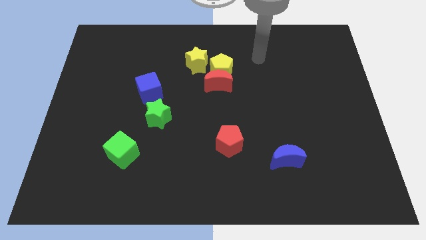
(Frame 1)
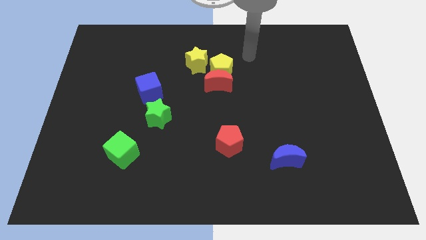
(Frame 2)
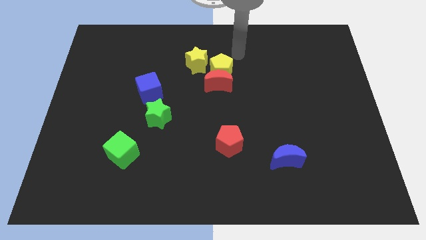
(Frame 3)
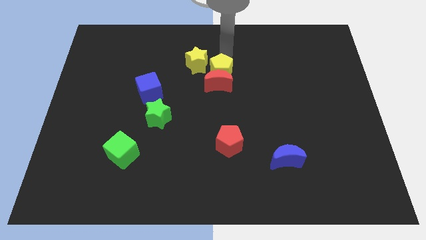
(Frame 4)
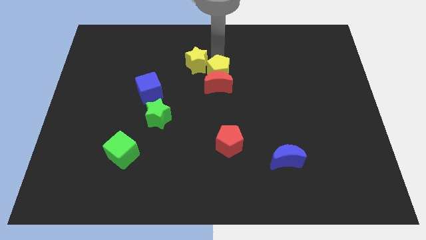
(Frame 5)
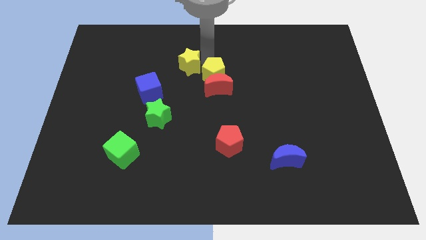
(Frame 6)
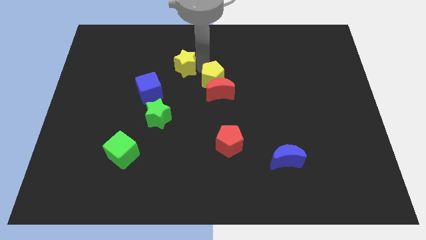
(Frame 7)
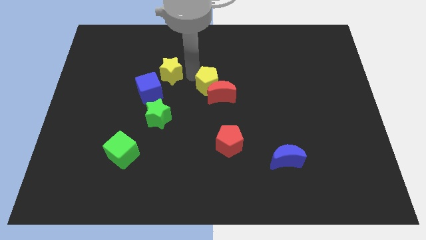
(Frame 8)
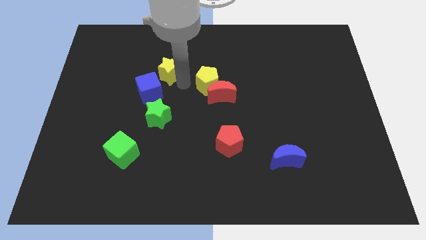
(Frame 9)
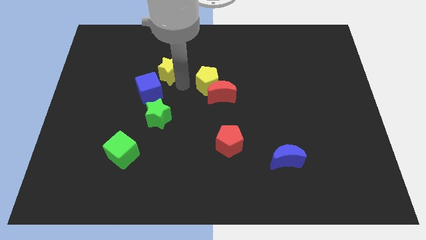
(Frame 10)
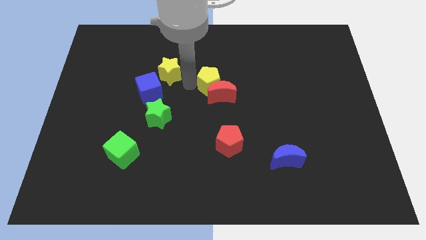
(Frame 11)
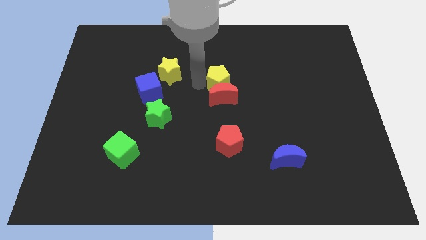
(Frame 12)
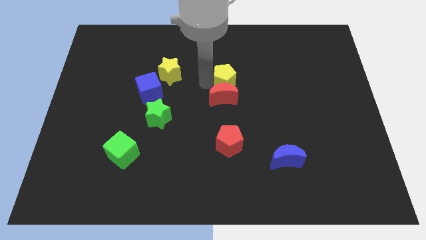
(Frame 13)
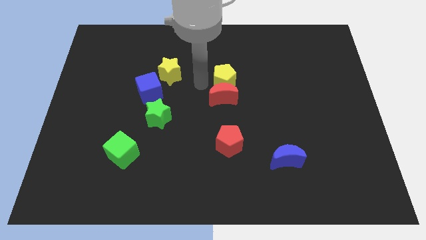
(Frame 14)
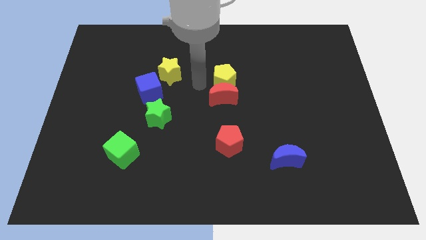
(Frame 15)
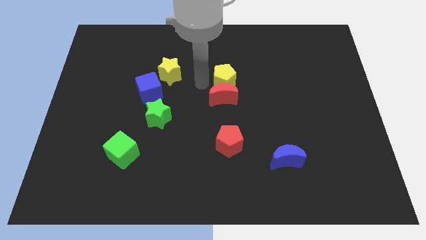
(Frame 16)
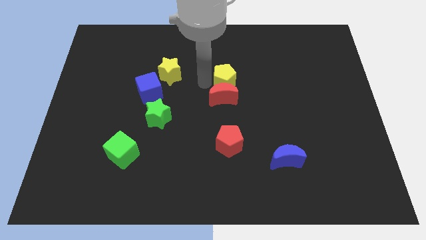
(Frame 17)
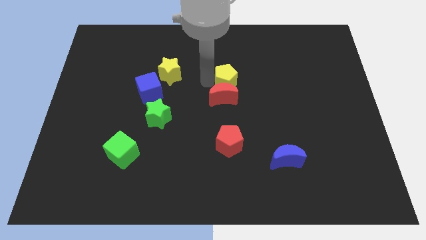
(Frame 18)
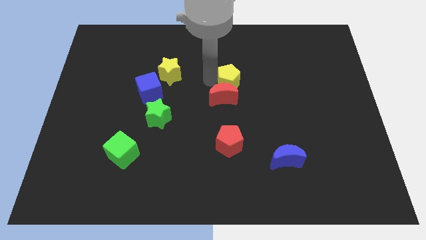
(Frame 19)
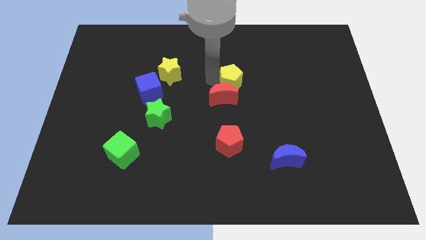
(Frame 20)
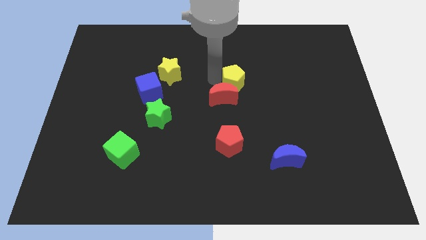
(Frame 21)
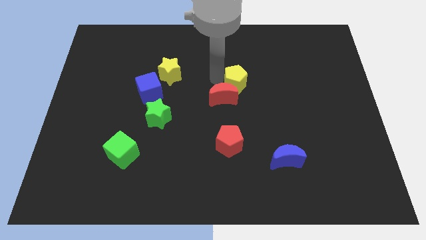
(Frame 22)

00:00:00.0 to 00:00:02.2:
separate the yellow pentagon from the red moon and yellow star

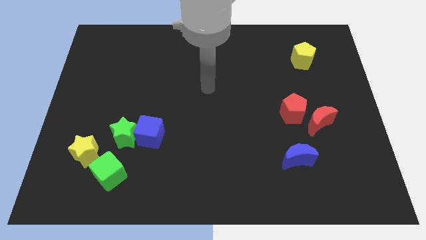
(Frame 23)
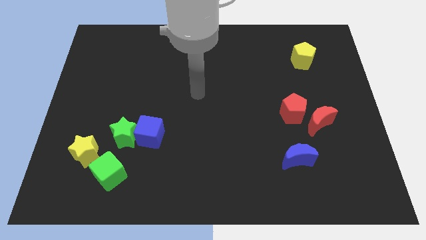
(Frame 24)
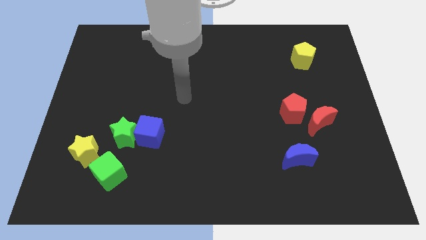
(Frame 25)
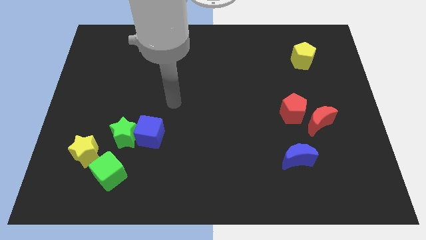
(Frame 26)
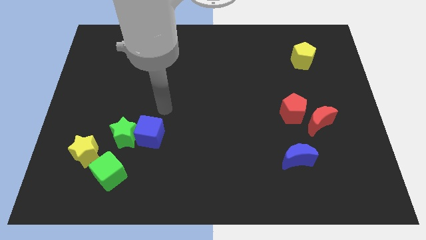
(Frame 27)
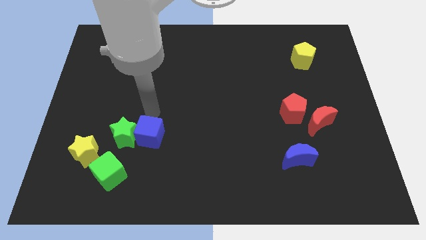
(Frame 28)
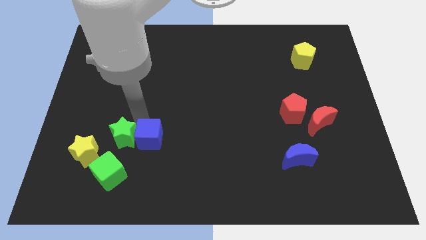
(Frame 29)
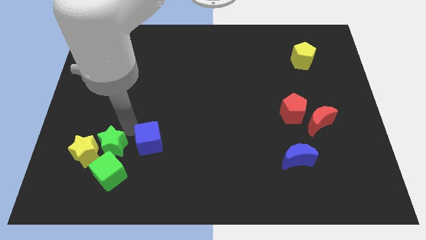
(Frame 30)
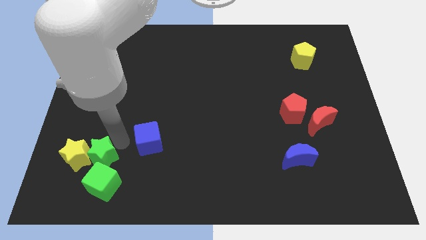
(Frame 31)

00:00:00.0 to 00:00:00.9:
separate the blue cube from the green star

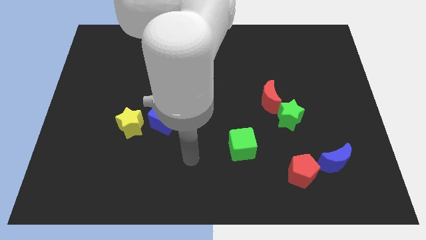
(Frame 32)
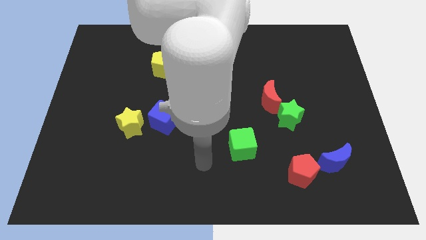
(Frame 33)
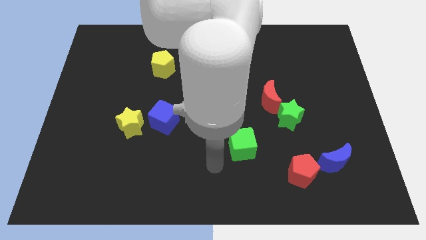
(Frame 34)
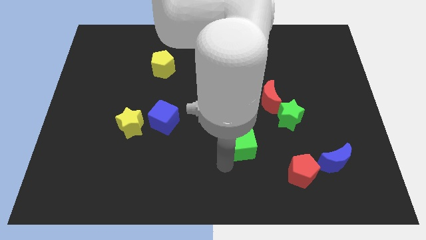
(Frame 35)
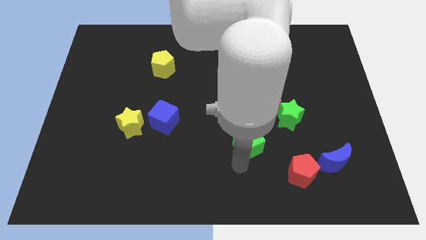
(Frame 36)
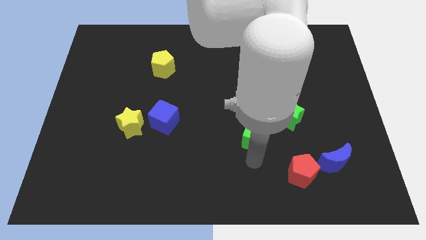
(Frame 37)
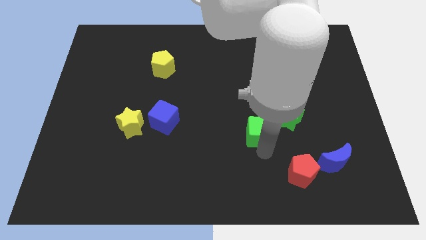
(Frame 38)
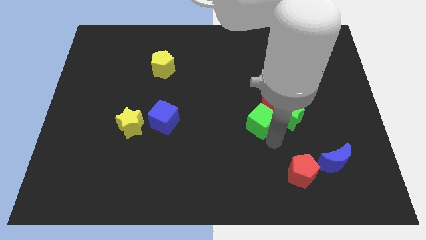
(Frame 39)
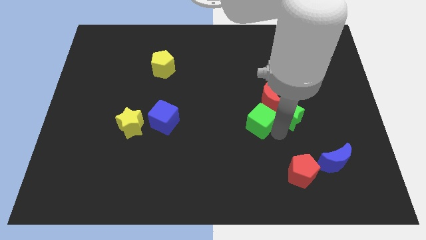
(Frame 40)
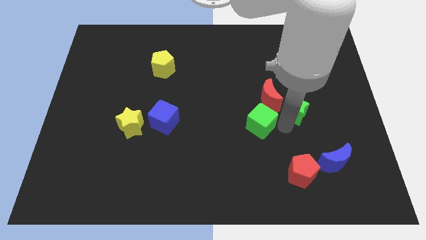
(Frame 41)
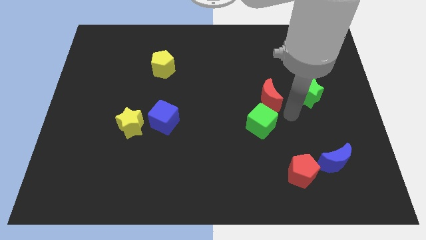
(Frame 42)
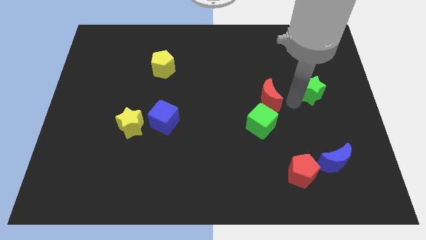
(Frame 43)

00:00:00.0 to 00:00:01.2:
pull the red moon apart from the green star

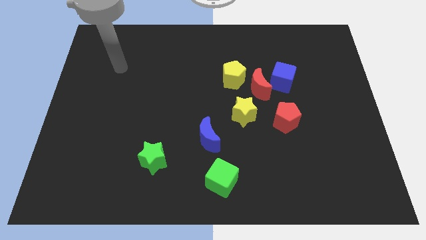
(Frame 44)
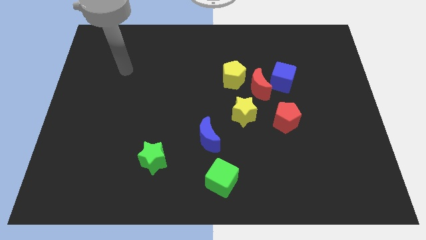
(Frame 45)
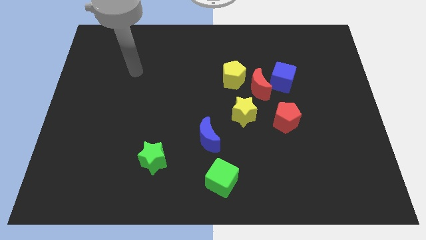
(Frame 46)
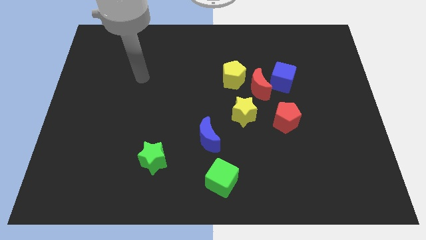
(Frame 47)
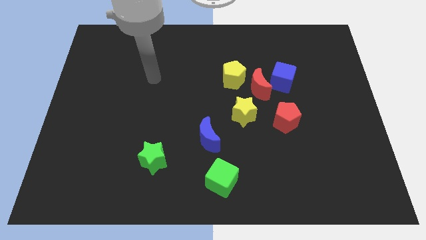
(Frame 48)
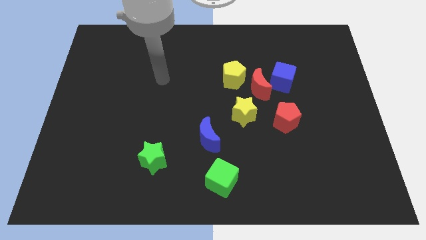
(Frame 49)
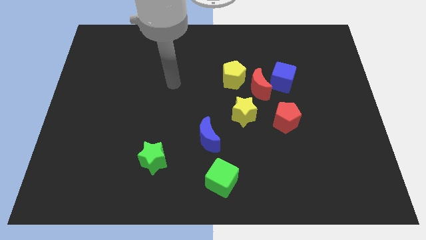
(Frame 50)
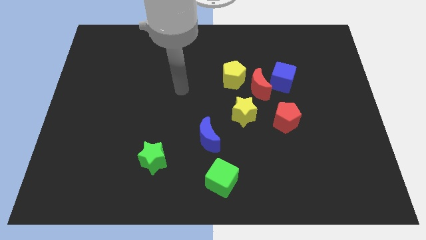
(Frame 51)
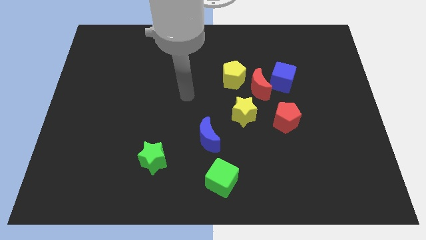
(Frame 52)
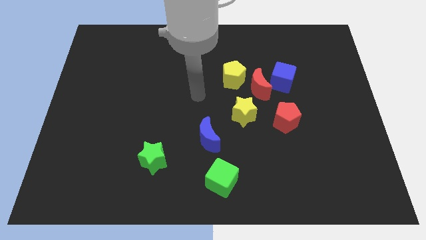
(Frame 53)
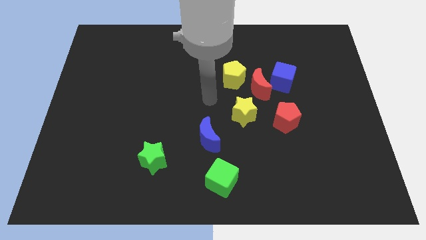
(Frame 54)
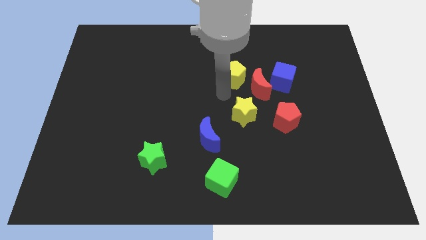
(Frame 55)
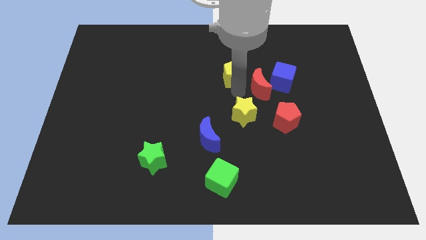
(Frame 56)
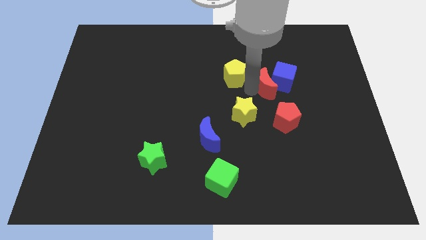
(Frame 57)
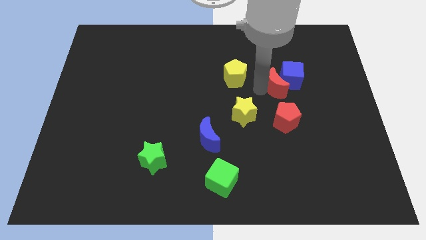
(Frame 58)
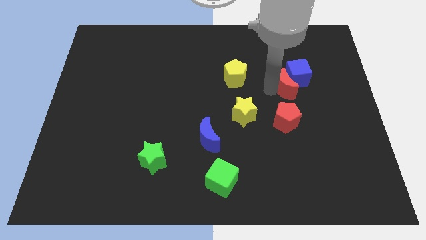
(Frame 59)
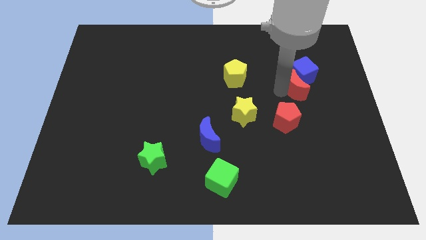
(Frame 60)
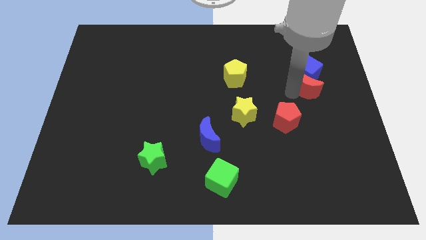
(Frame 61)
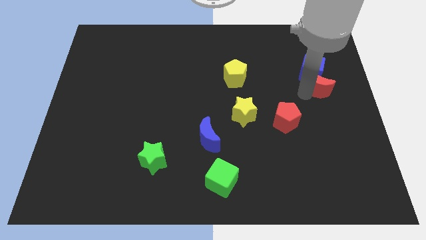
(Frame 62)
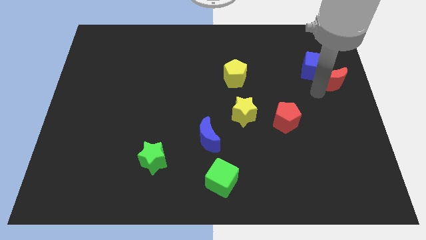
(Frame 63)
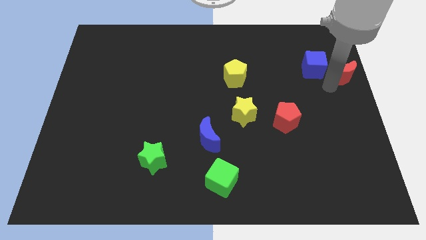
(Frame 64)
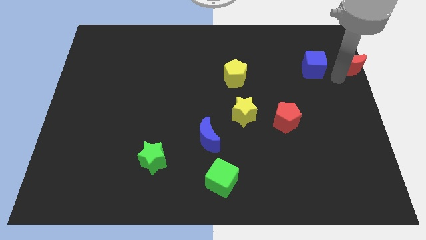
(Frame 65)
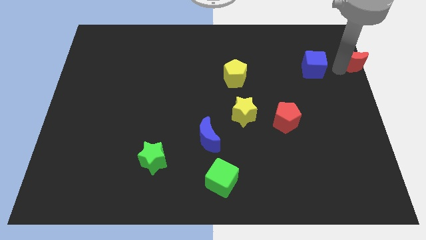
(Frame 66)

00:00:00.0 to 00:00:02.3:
separate the blue cube from the red moon

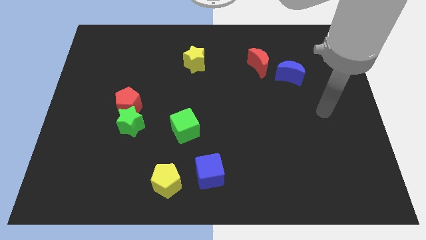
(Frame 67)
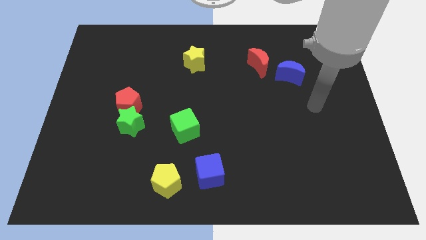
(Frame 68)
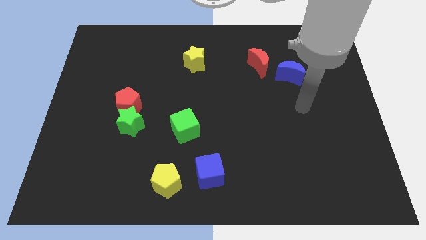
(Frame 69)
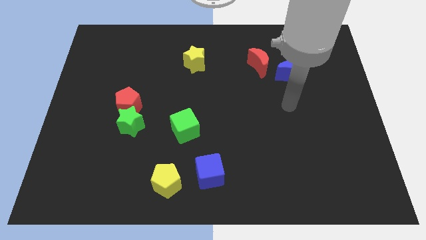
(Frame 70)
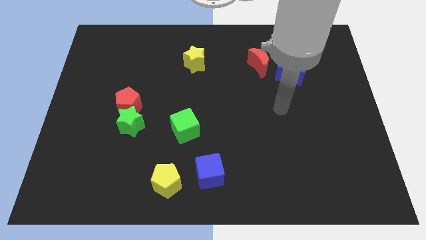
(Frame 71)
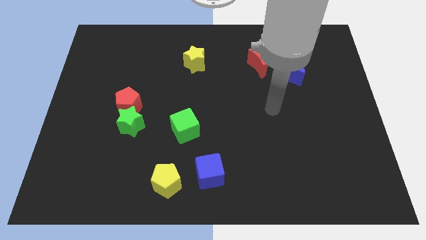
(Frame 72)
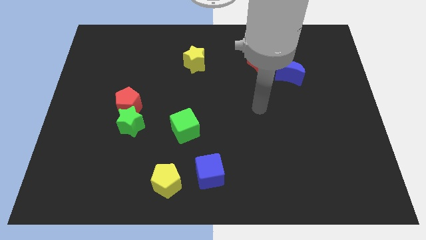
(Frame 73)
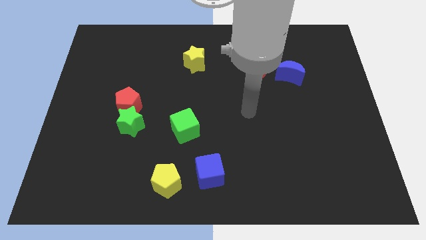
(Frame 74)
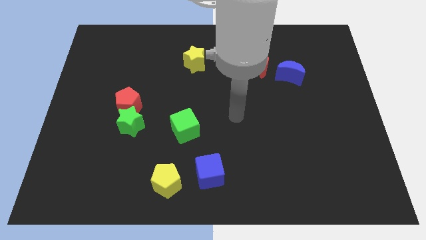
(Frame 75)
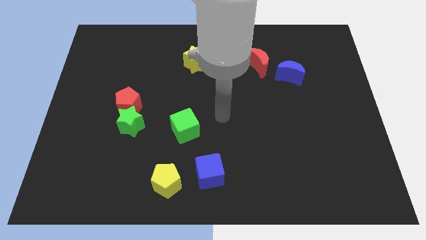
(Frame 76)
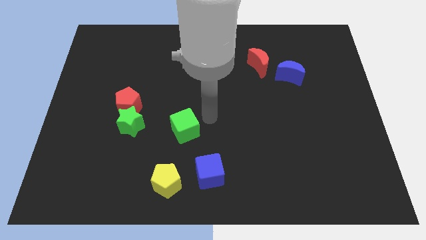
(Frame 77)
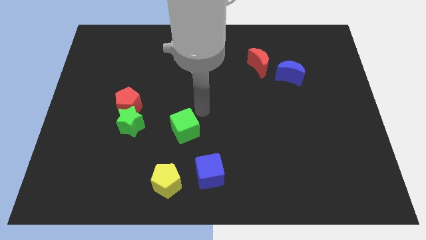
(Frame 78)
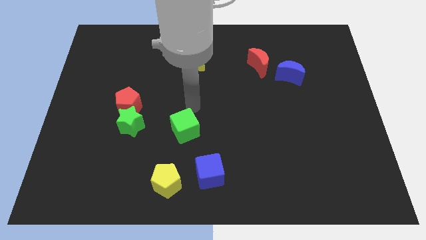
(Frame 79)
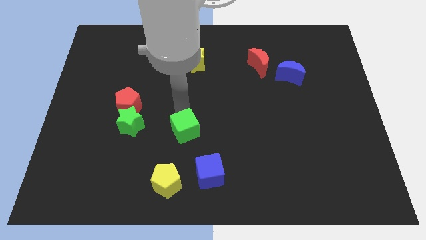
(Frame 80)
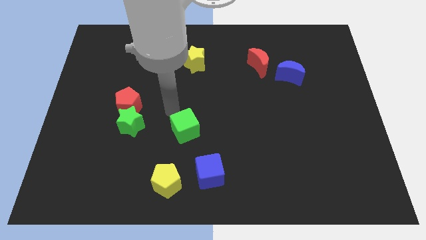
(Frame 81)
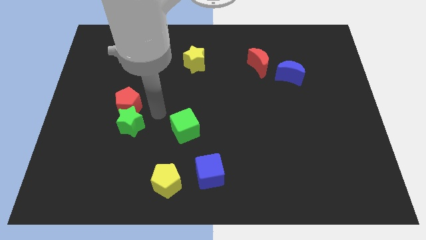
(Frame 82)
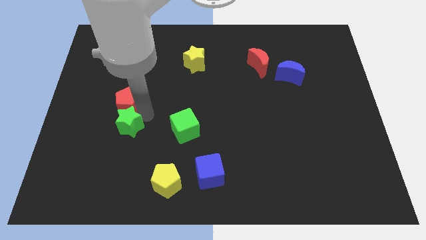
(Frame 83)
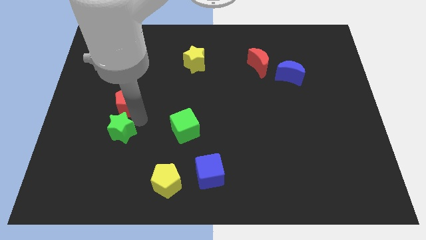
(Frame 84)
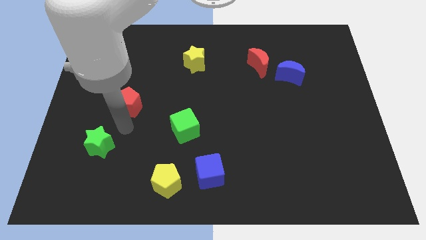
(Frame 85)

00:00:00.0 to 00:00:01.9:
separate the red pentagon from the green star

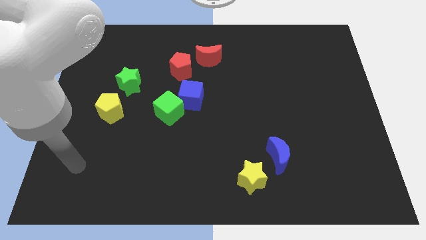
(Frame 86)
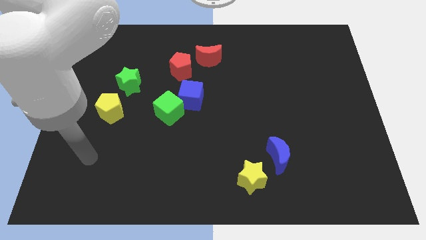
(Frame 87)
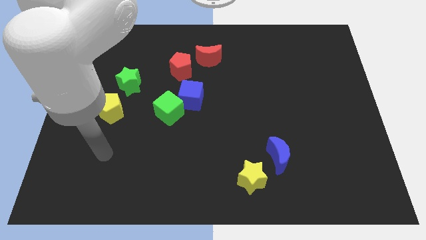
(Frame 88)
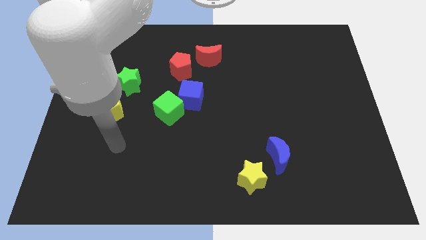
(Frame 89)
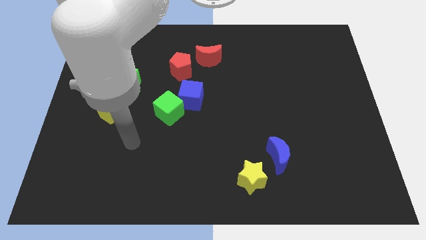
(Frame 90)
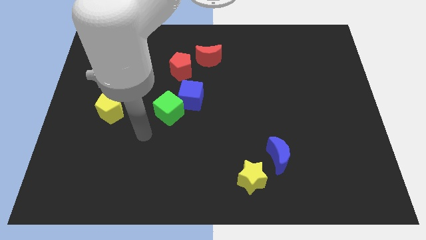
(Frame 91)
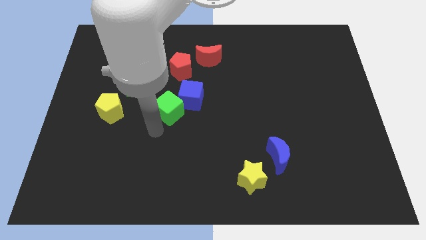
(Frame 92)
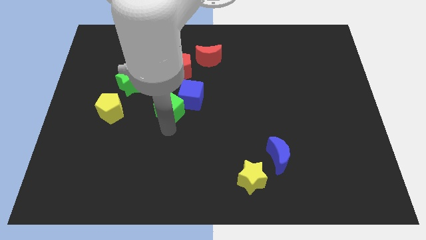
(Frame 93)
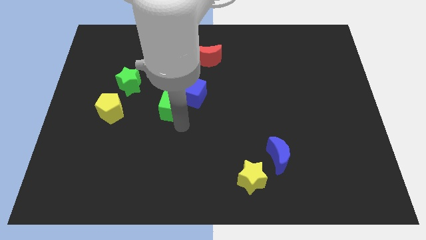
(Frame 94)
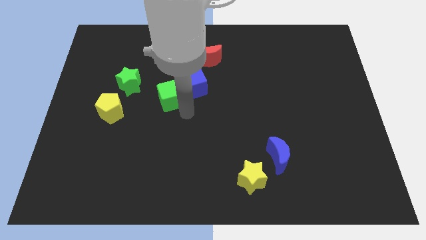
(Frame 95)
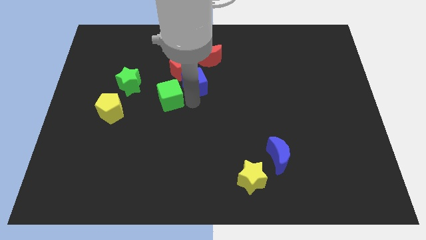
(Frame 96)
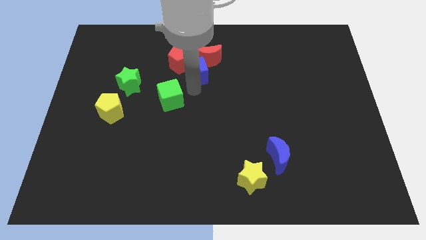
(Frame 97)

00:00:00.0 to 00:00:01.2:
move the green cube away from the blue cube
